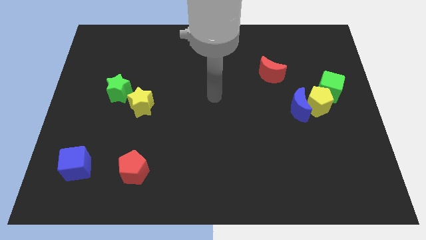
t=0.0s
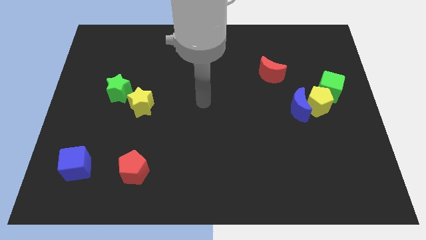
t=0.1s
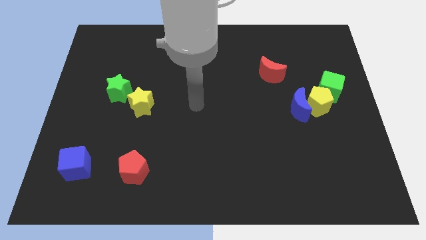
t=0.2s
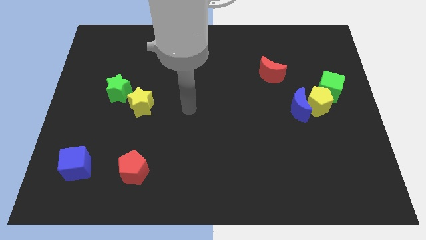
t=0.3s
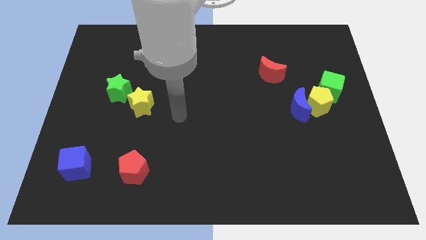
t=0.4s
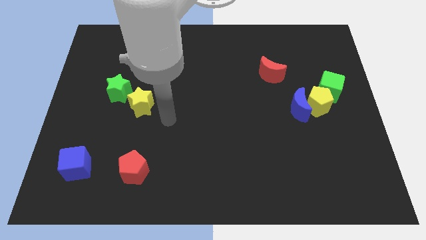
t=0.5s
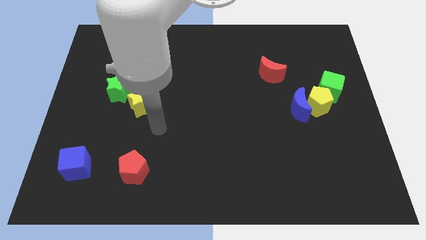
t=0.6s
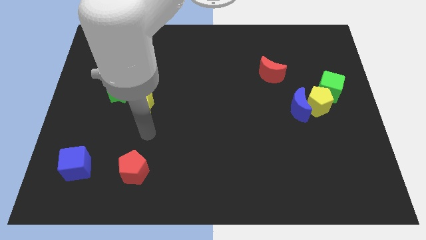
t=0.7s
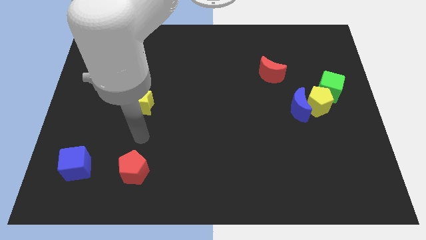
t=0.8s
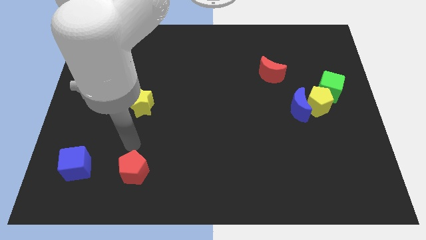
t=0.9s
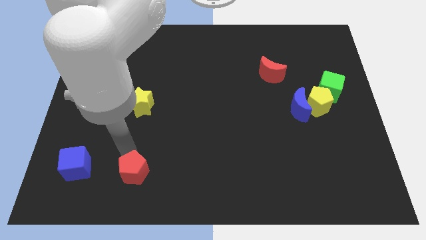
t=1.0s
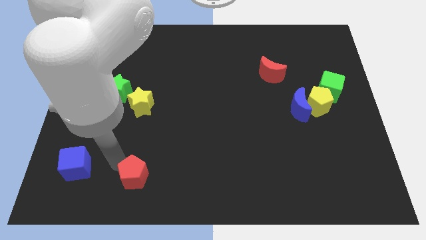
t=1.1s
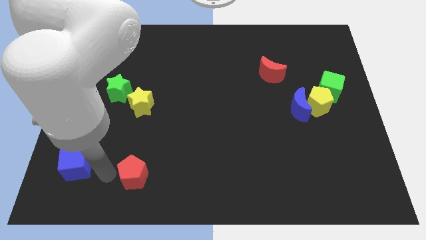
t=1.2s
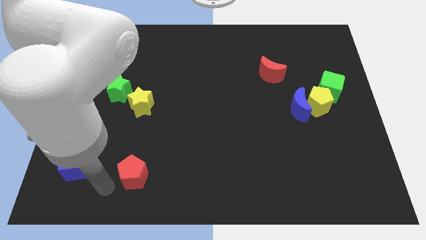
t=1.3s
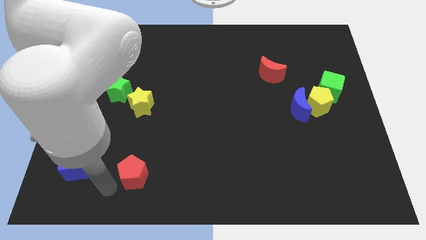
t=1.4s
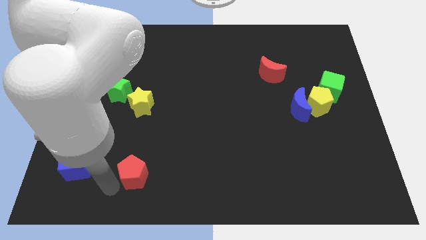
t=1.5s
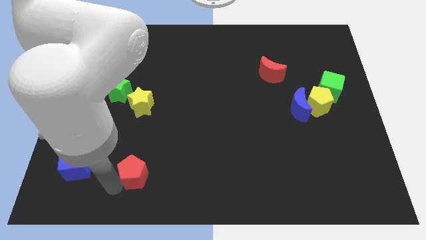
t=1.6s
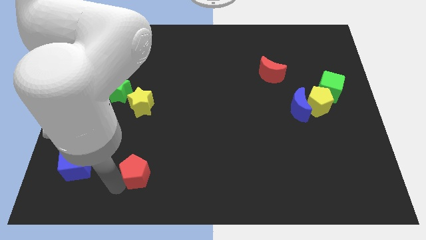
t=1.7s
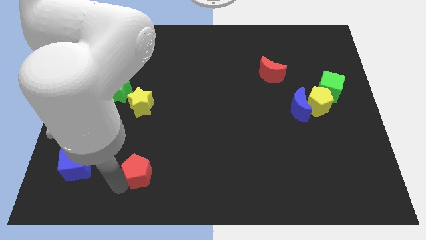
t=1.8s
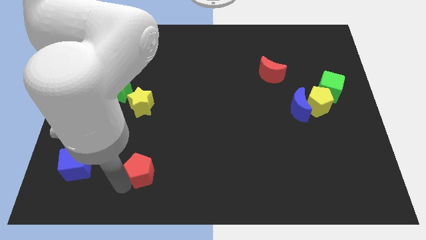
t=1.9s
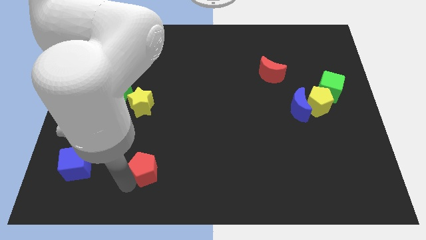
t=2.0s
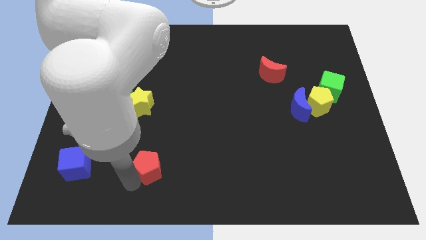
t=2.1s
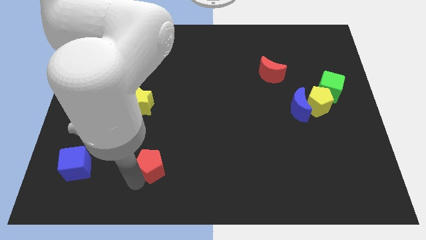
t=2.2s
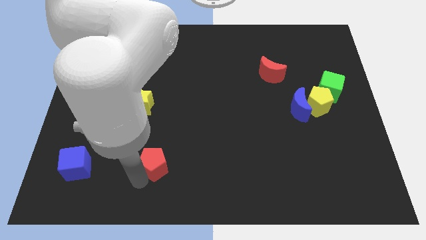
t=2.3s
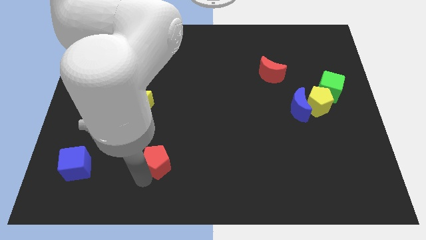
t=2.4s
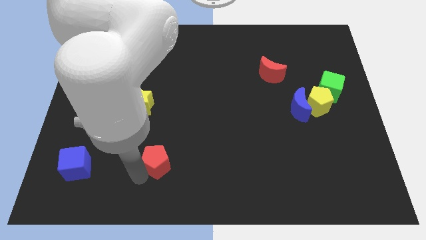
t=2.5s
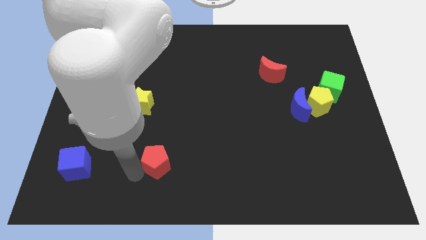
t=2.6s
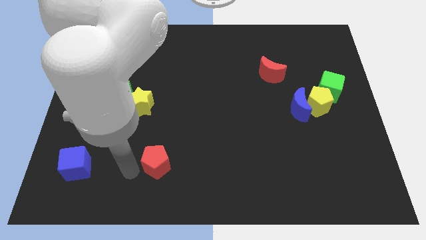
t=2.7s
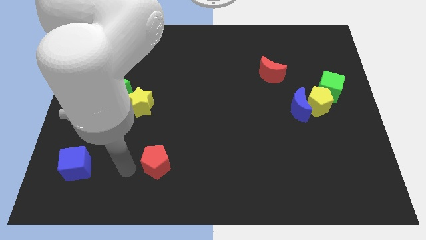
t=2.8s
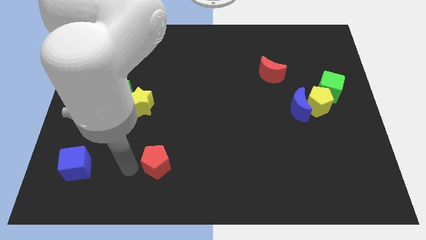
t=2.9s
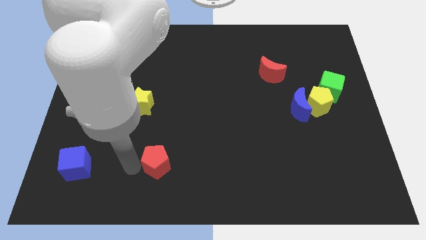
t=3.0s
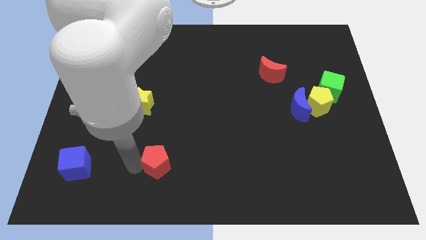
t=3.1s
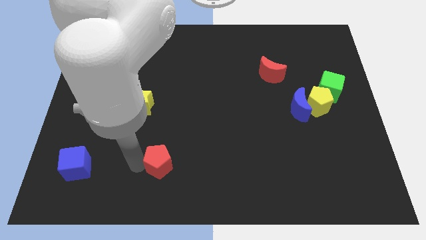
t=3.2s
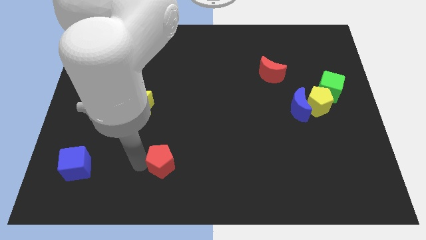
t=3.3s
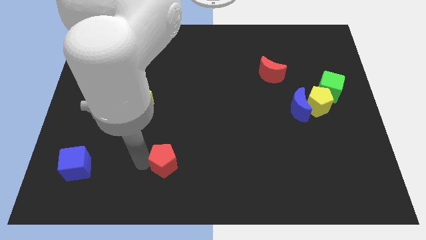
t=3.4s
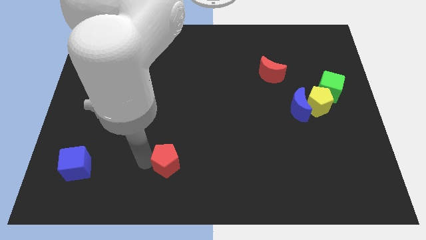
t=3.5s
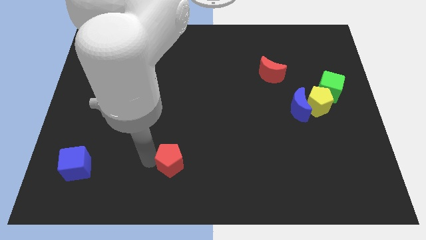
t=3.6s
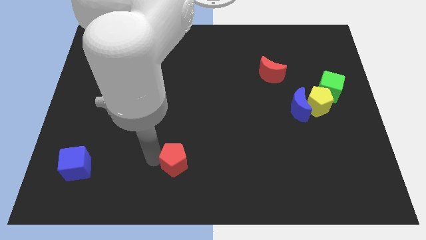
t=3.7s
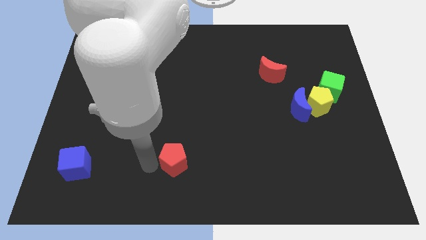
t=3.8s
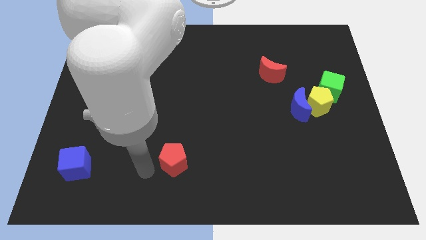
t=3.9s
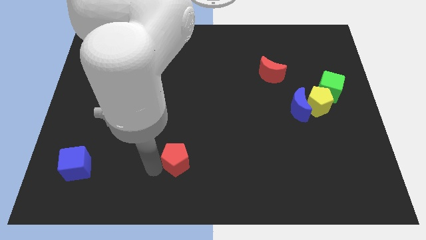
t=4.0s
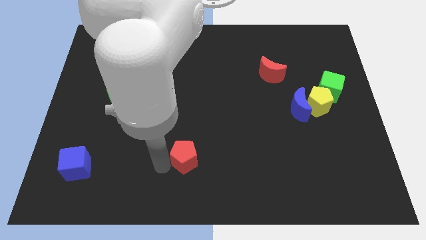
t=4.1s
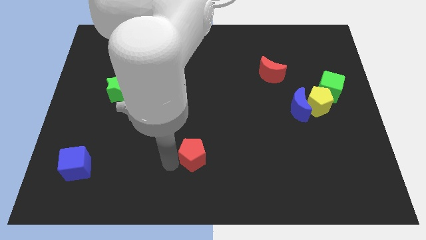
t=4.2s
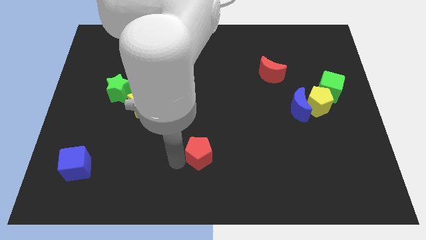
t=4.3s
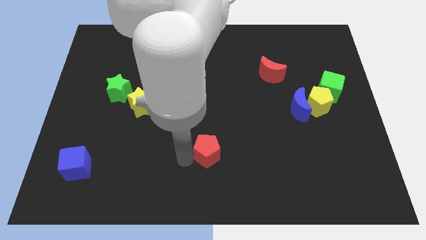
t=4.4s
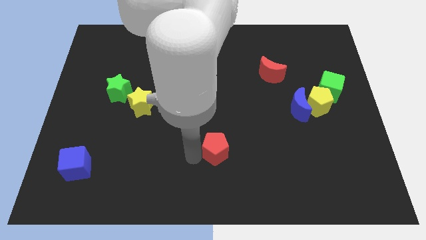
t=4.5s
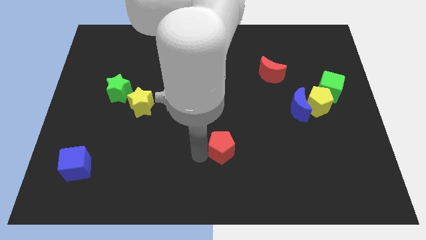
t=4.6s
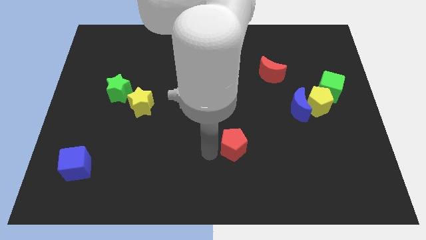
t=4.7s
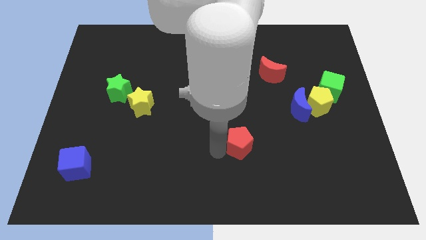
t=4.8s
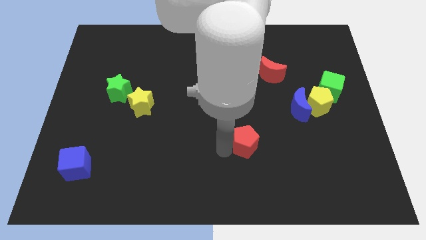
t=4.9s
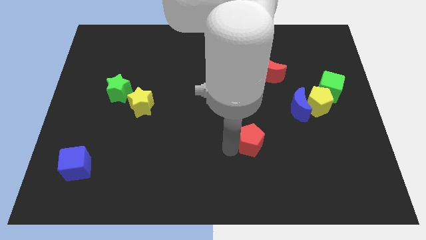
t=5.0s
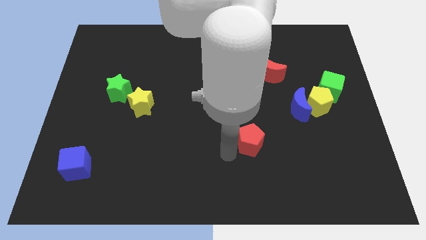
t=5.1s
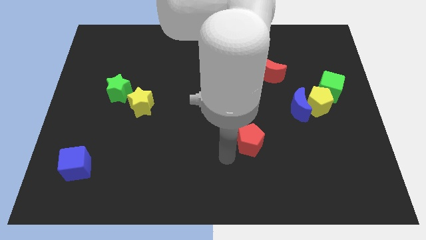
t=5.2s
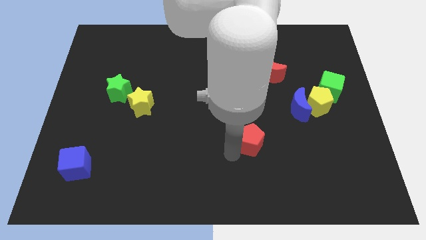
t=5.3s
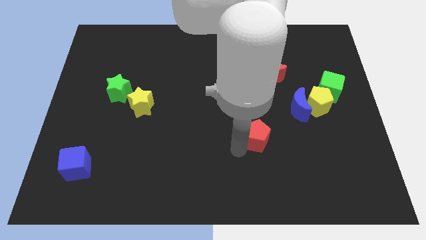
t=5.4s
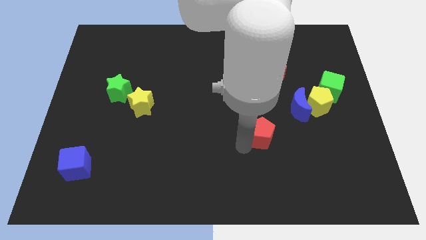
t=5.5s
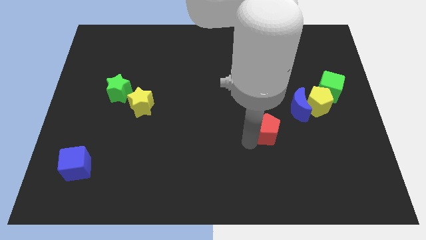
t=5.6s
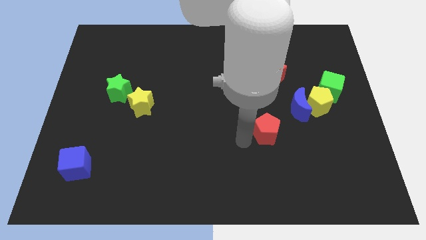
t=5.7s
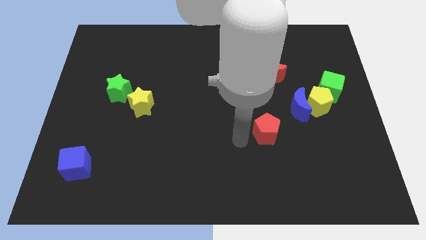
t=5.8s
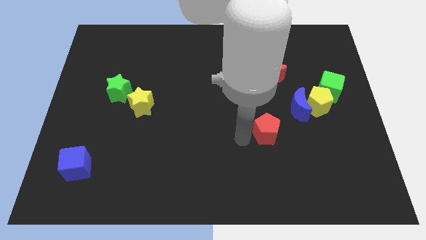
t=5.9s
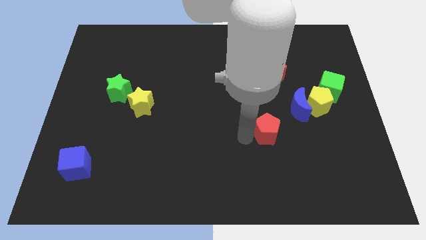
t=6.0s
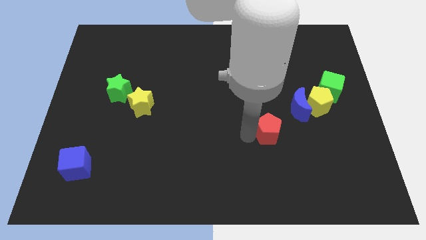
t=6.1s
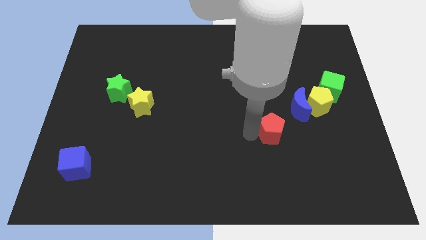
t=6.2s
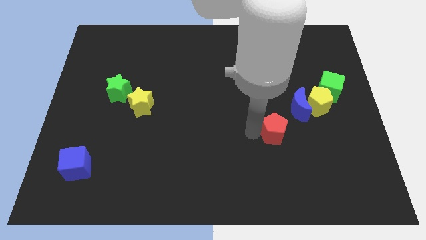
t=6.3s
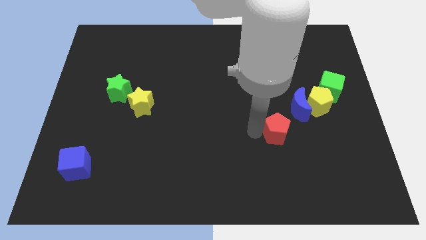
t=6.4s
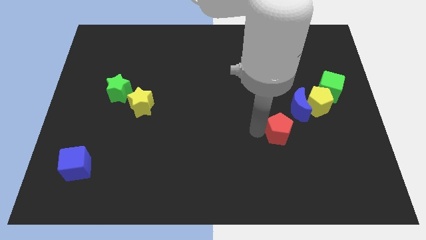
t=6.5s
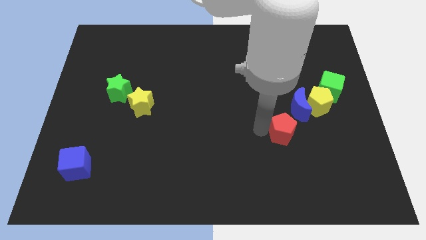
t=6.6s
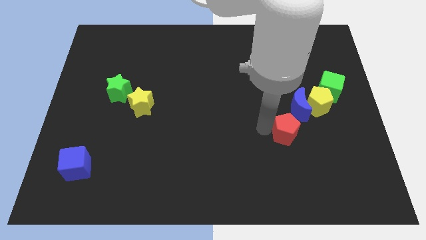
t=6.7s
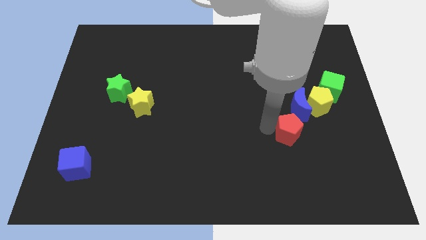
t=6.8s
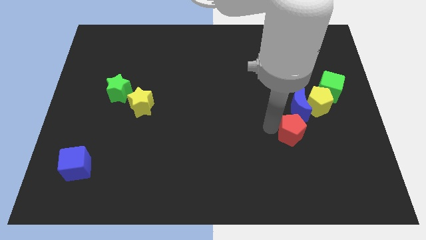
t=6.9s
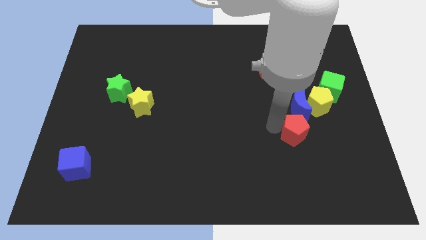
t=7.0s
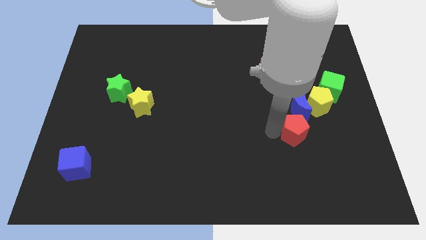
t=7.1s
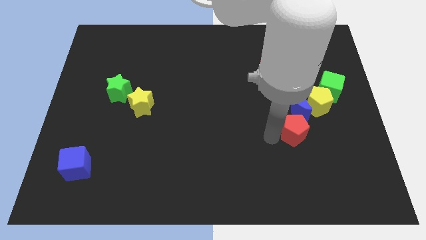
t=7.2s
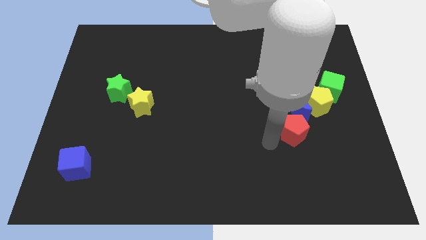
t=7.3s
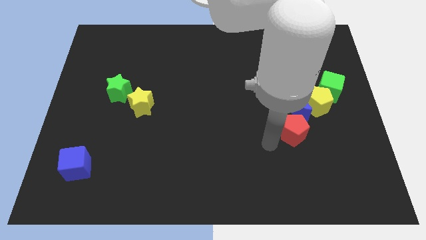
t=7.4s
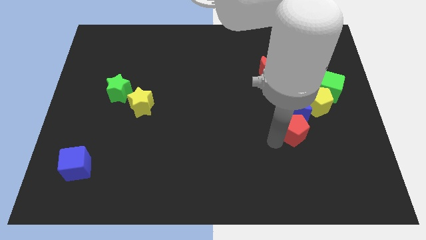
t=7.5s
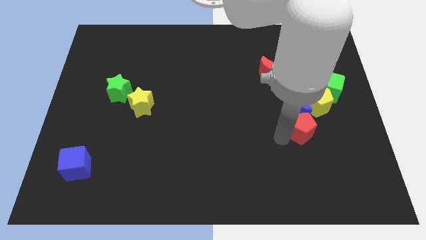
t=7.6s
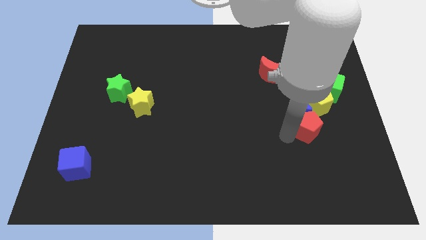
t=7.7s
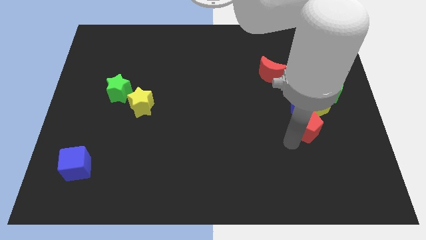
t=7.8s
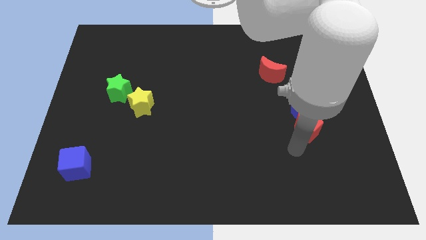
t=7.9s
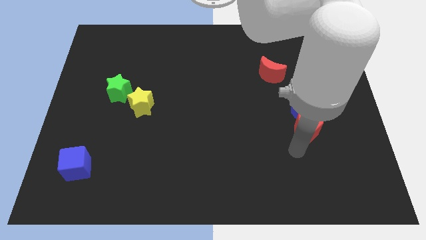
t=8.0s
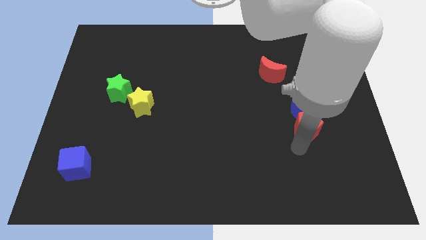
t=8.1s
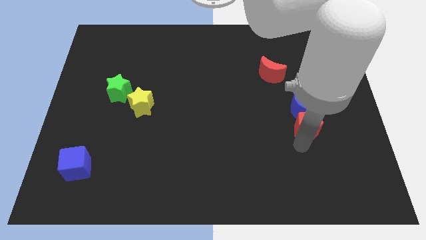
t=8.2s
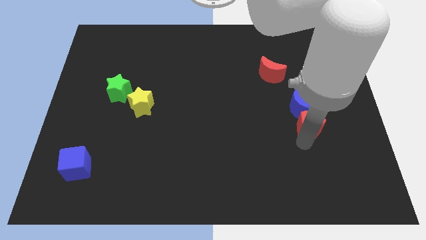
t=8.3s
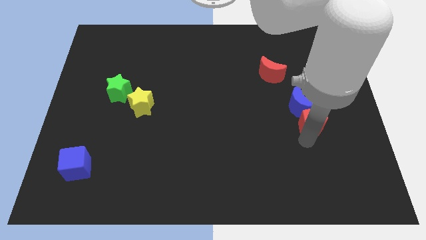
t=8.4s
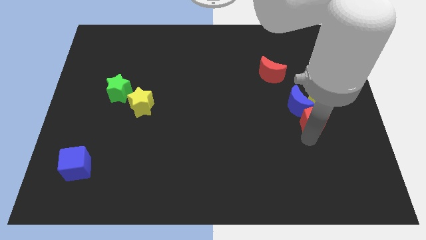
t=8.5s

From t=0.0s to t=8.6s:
move the red pentagon close to the yellow pentagon
